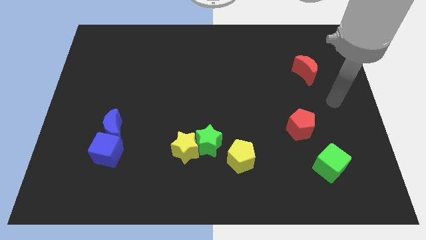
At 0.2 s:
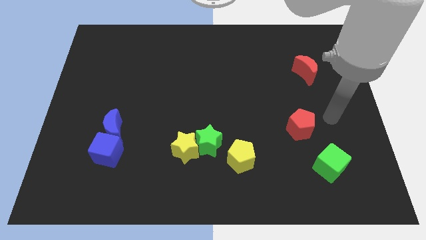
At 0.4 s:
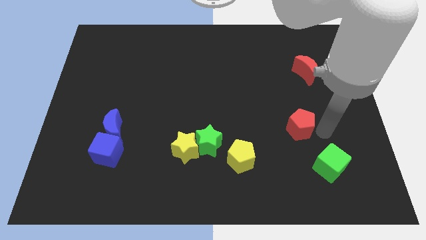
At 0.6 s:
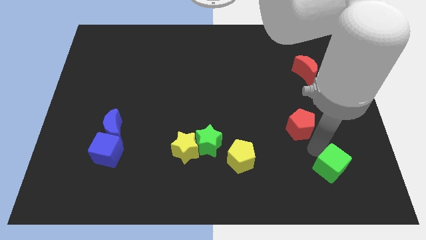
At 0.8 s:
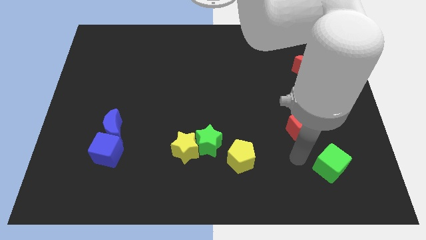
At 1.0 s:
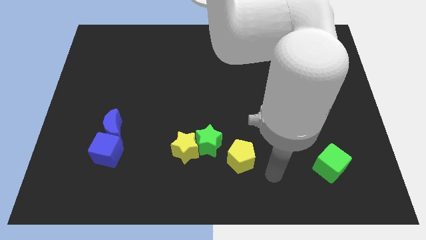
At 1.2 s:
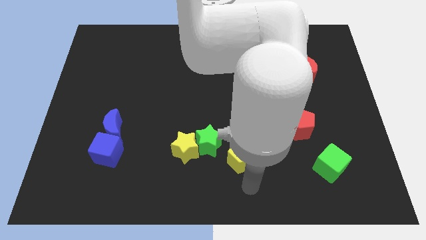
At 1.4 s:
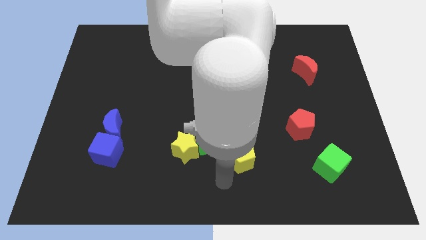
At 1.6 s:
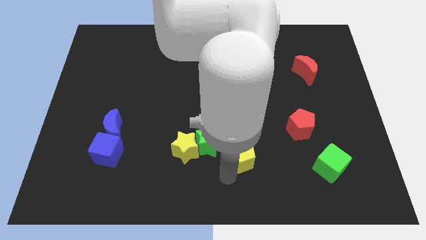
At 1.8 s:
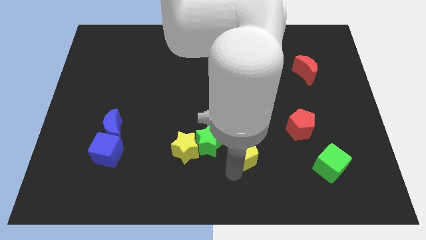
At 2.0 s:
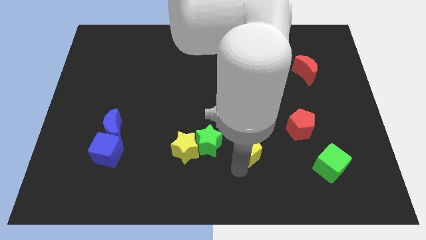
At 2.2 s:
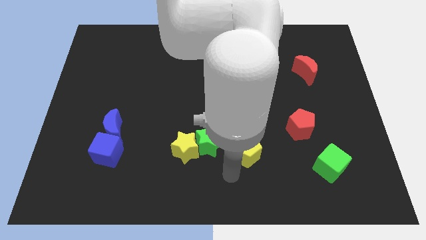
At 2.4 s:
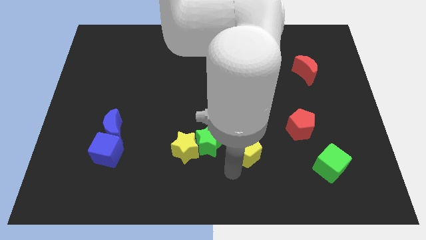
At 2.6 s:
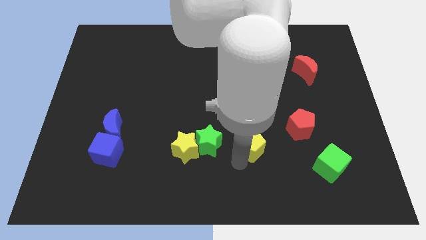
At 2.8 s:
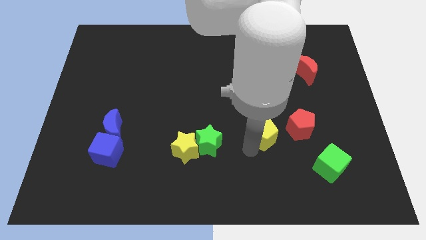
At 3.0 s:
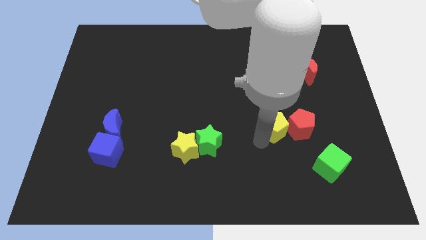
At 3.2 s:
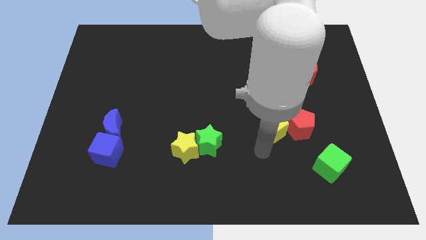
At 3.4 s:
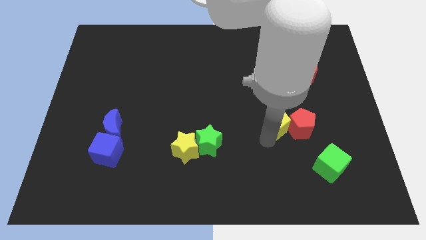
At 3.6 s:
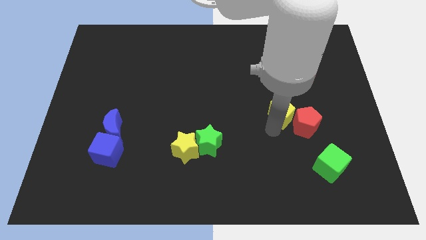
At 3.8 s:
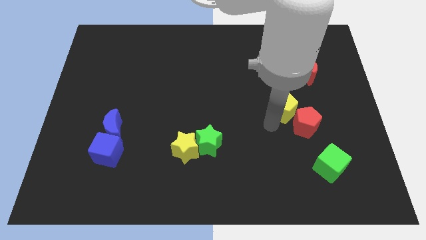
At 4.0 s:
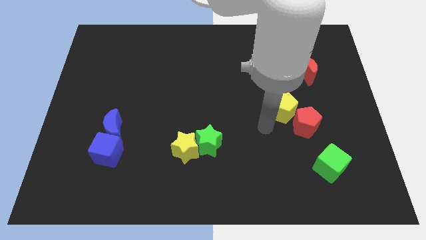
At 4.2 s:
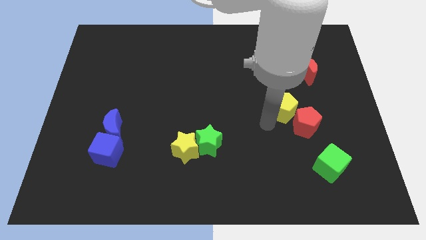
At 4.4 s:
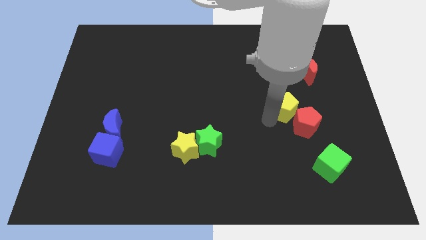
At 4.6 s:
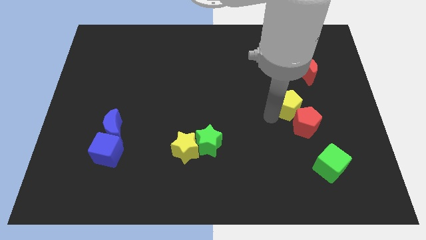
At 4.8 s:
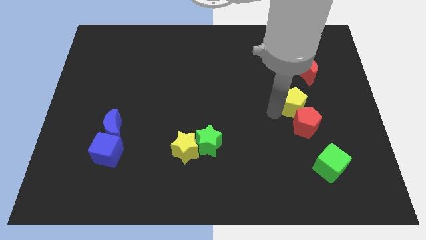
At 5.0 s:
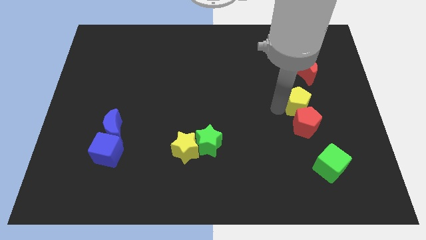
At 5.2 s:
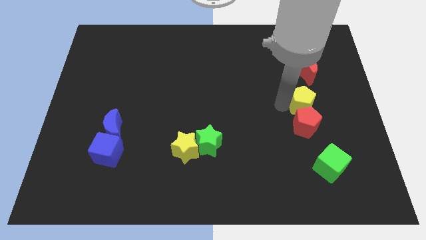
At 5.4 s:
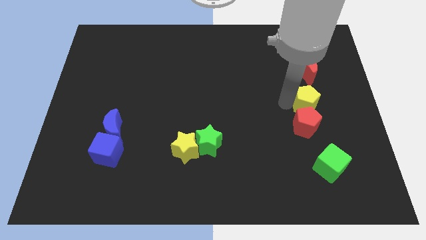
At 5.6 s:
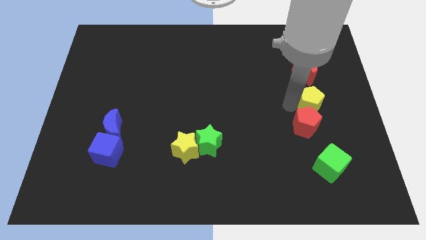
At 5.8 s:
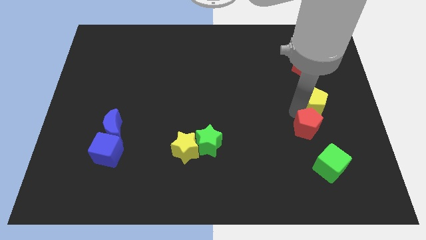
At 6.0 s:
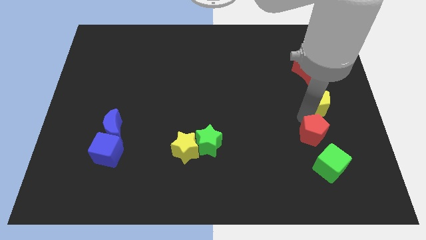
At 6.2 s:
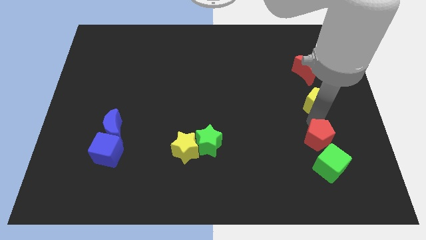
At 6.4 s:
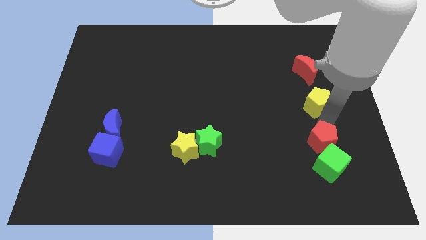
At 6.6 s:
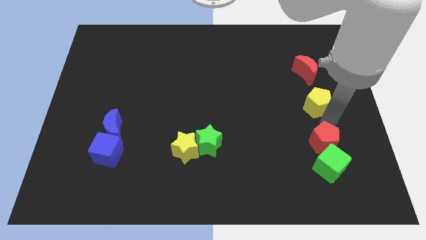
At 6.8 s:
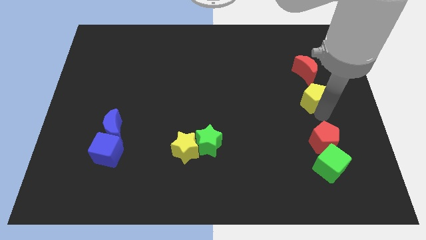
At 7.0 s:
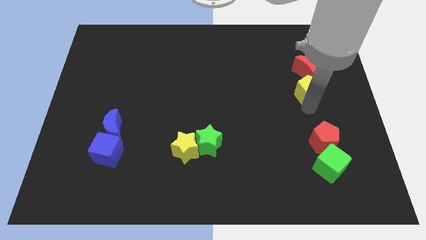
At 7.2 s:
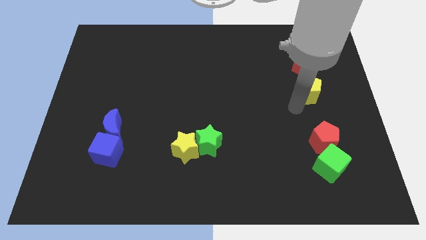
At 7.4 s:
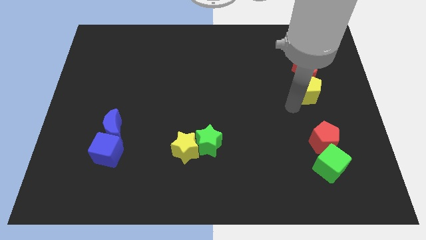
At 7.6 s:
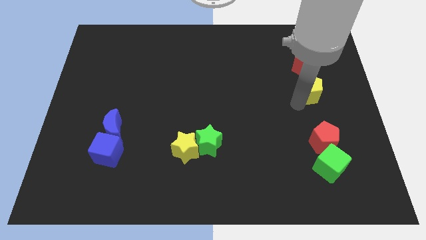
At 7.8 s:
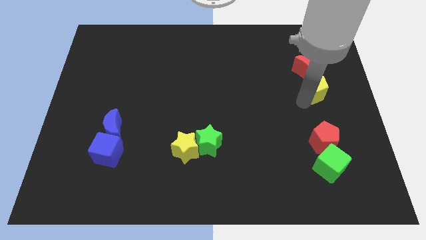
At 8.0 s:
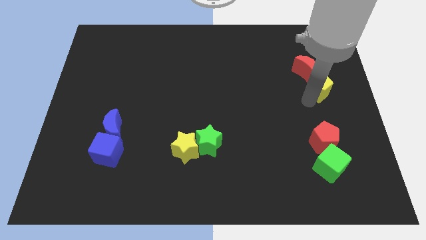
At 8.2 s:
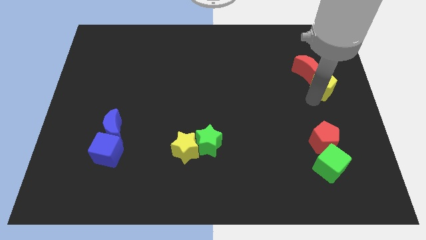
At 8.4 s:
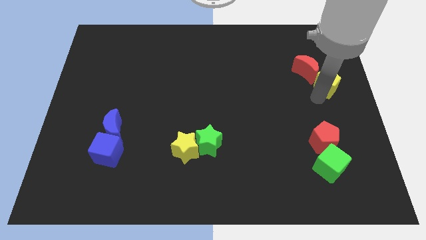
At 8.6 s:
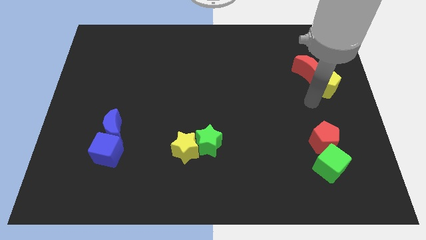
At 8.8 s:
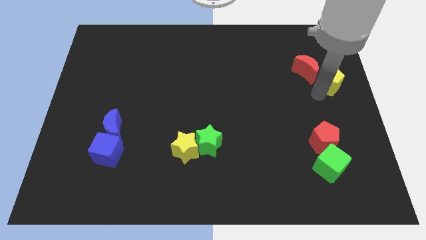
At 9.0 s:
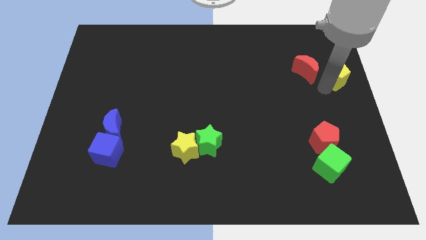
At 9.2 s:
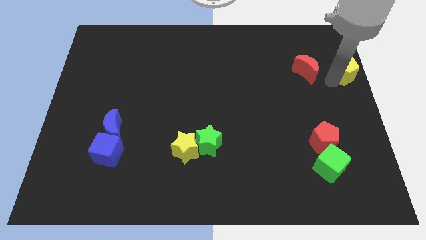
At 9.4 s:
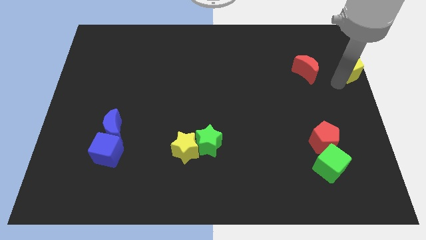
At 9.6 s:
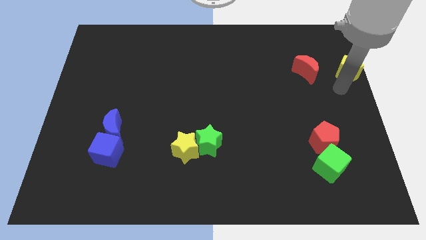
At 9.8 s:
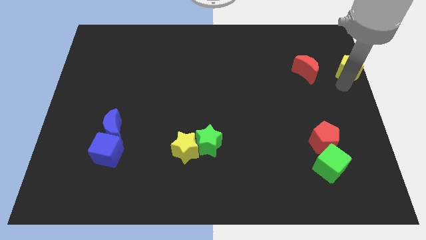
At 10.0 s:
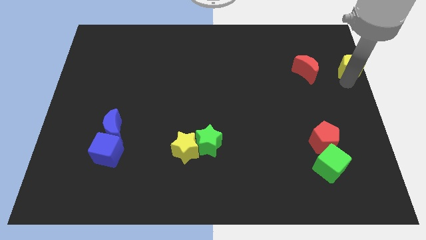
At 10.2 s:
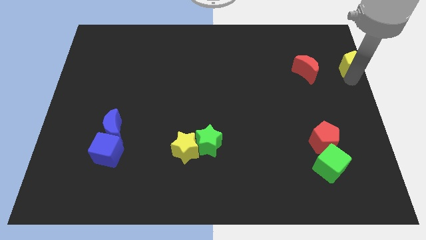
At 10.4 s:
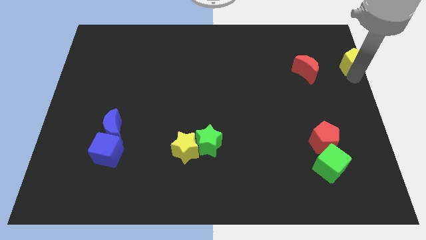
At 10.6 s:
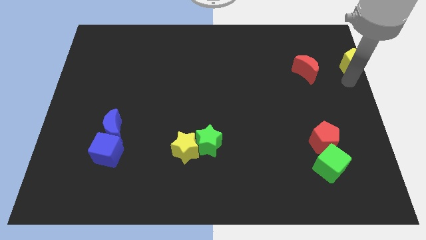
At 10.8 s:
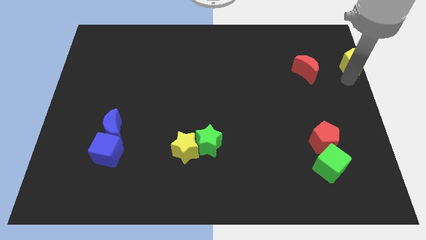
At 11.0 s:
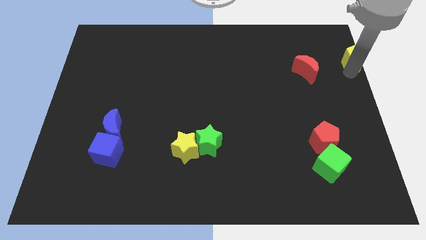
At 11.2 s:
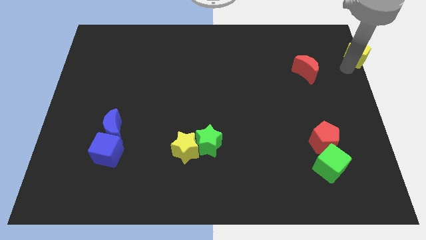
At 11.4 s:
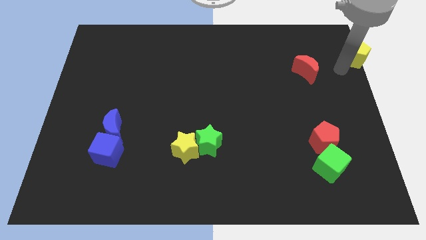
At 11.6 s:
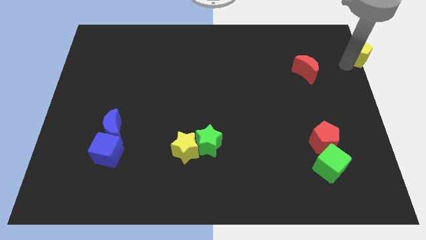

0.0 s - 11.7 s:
move the yellow pentagon to the top right of the board

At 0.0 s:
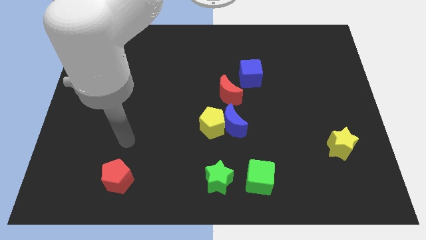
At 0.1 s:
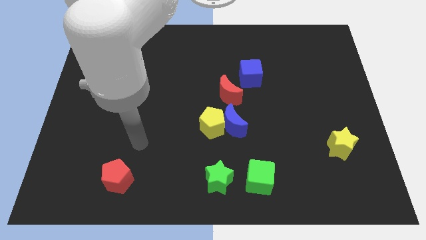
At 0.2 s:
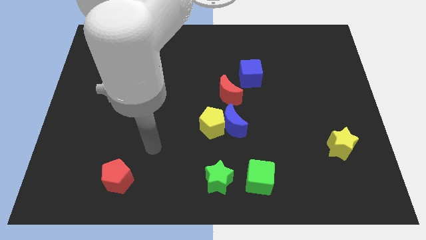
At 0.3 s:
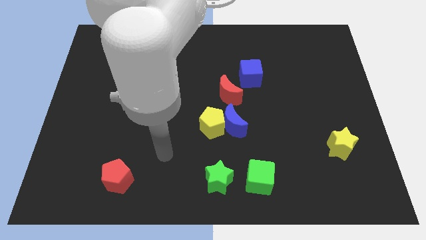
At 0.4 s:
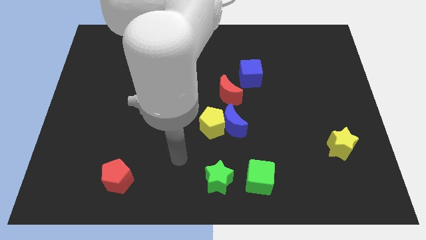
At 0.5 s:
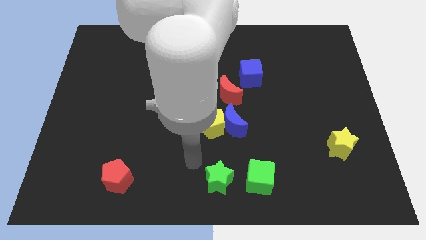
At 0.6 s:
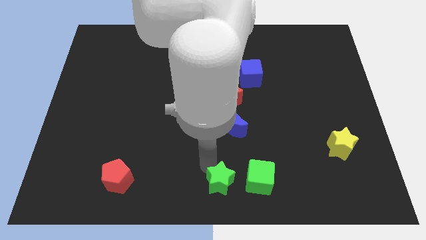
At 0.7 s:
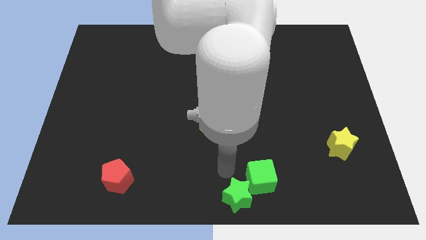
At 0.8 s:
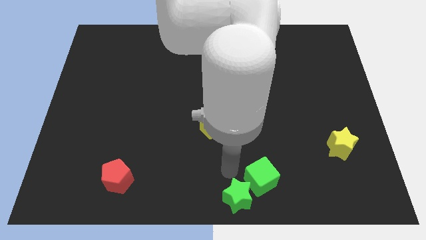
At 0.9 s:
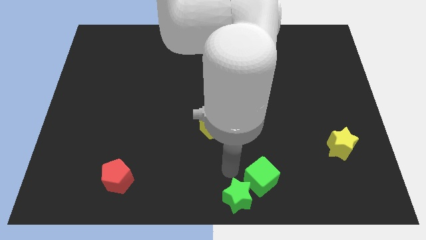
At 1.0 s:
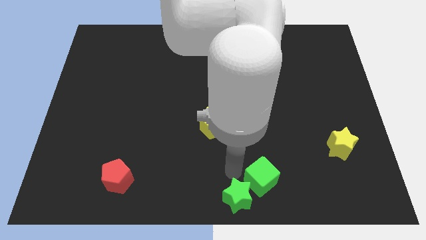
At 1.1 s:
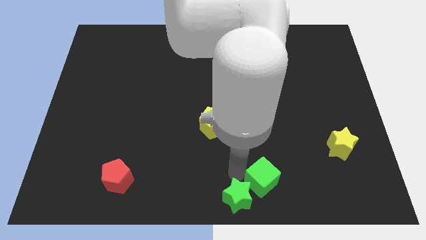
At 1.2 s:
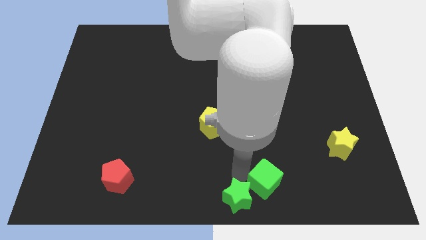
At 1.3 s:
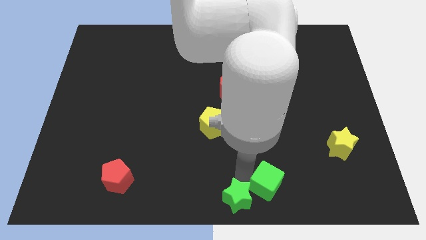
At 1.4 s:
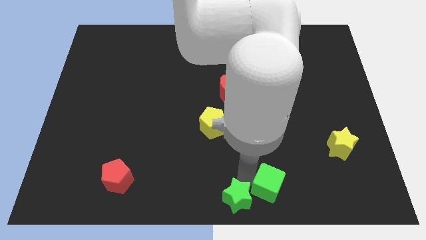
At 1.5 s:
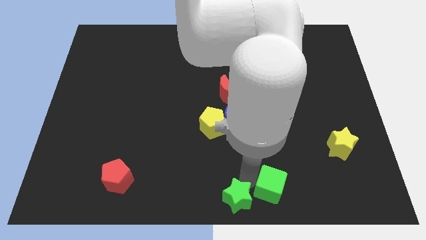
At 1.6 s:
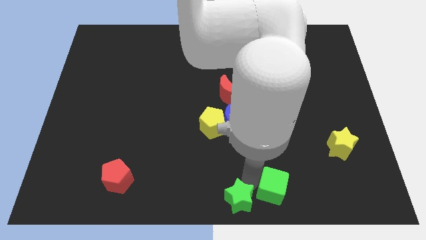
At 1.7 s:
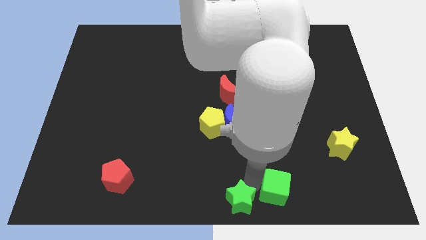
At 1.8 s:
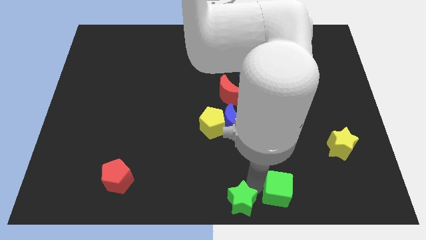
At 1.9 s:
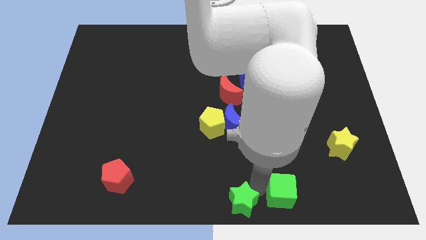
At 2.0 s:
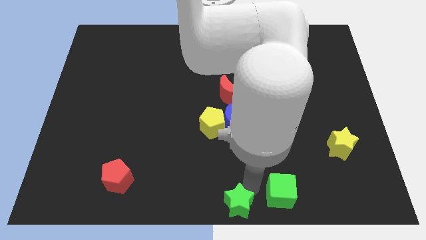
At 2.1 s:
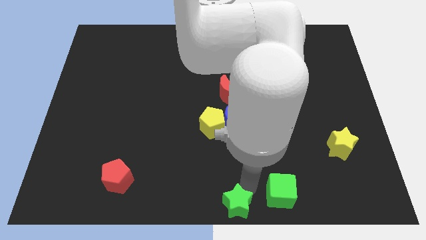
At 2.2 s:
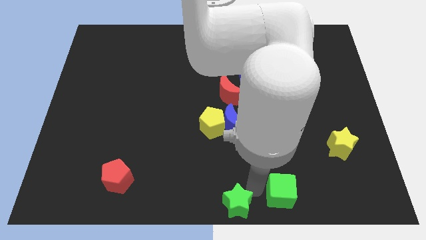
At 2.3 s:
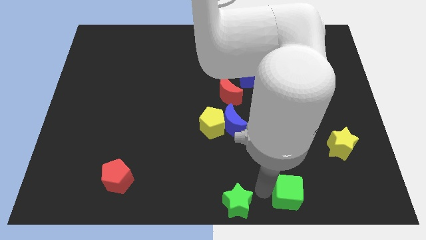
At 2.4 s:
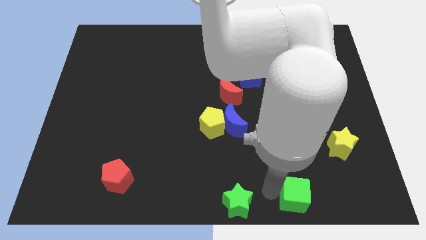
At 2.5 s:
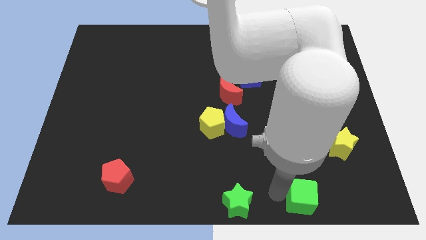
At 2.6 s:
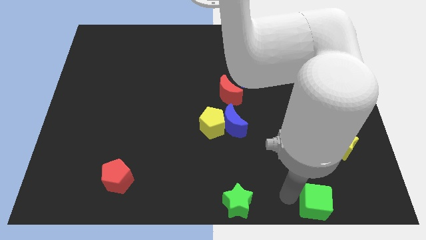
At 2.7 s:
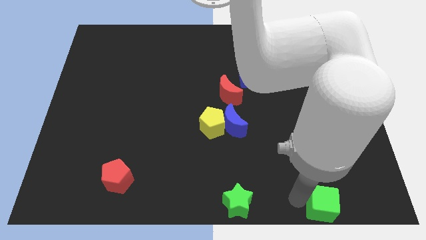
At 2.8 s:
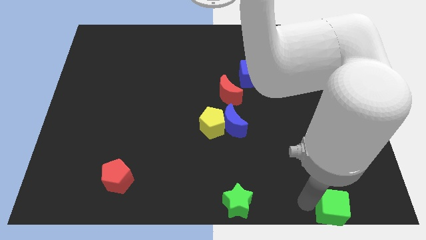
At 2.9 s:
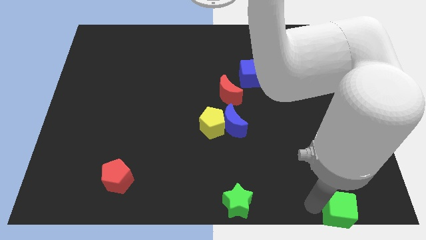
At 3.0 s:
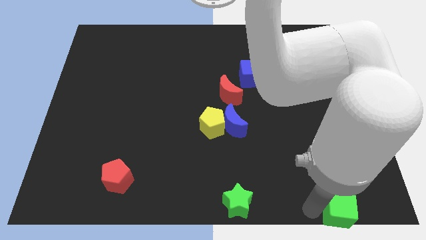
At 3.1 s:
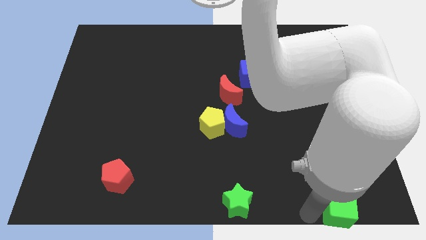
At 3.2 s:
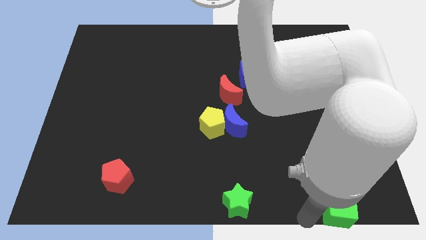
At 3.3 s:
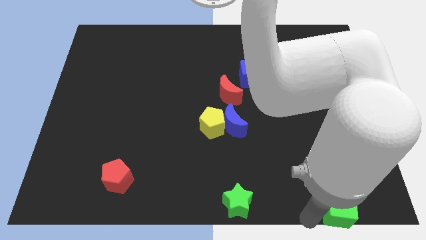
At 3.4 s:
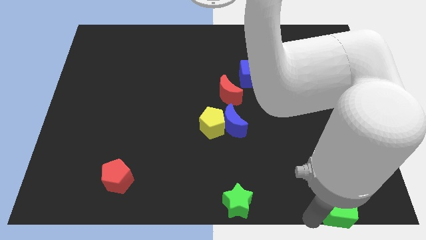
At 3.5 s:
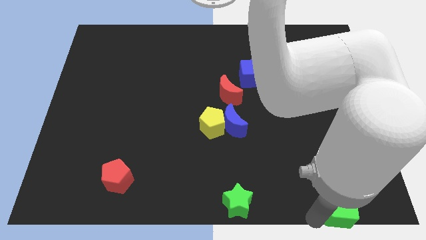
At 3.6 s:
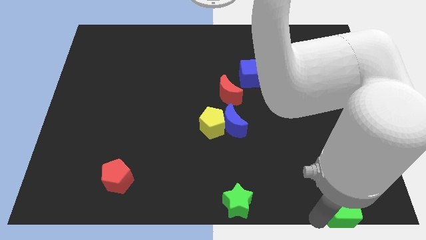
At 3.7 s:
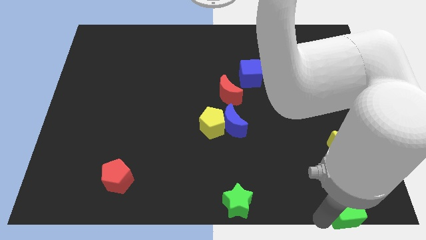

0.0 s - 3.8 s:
push the green cube to the bottom right
